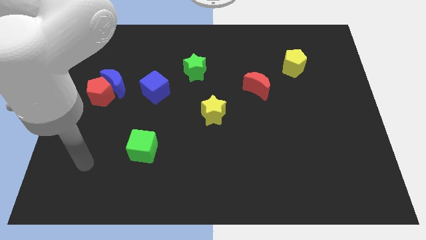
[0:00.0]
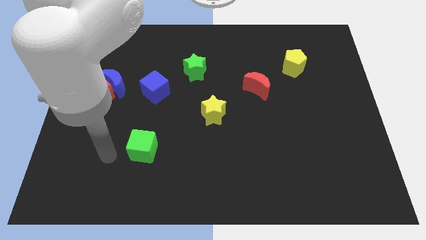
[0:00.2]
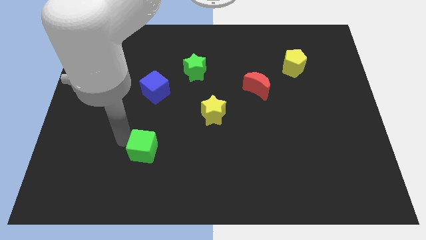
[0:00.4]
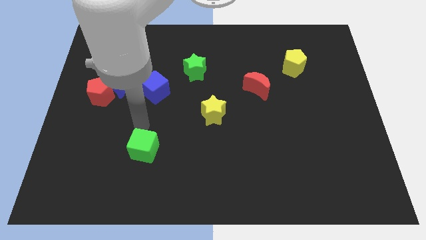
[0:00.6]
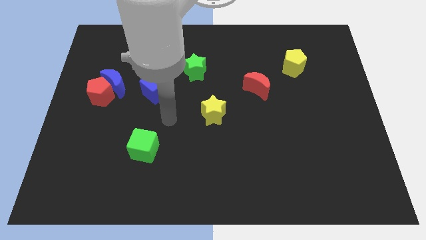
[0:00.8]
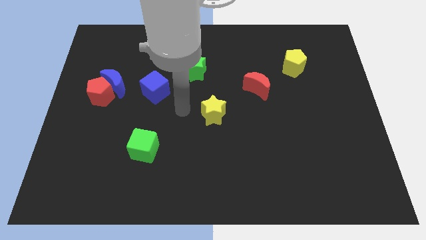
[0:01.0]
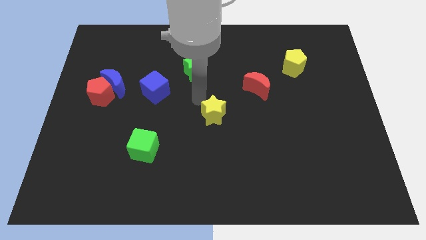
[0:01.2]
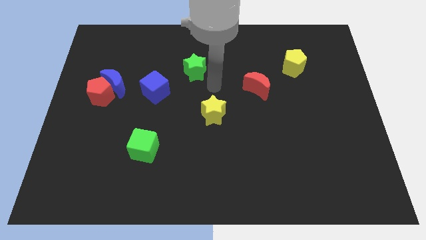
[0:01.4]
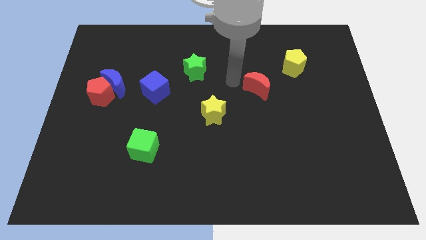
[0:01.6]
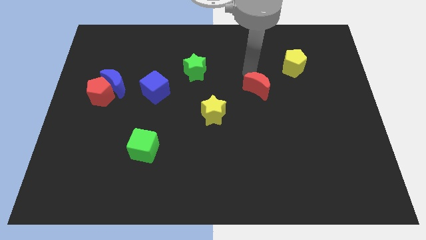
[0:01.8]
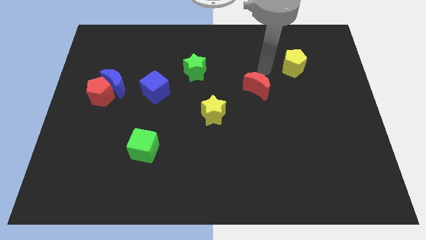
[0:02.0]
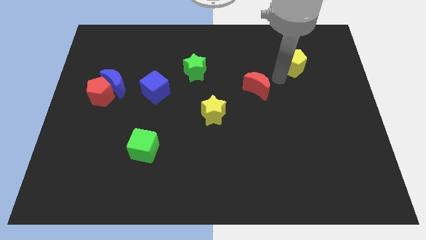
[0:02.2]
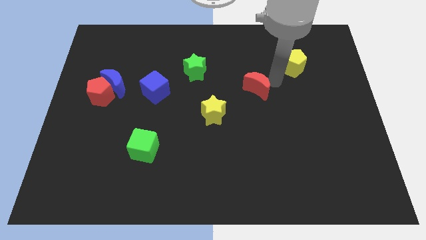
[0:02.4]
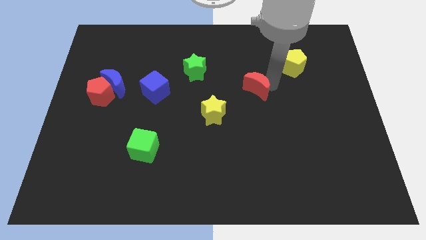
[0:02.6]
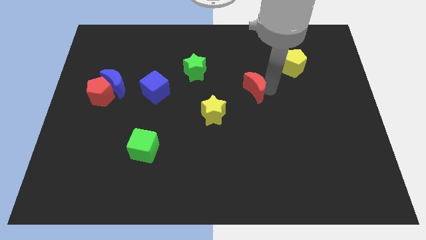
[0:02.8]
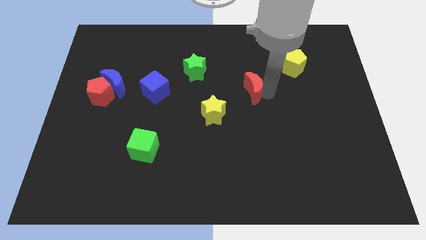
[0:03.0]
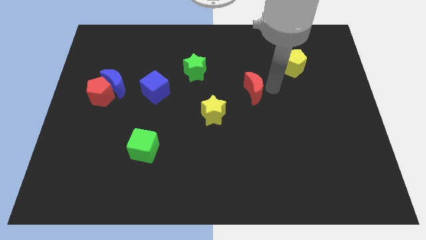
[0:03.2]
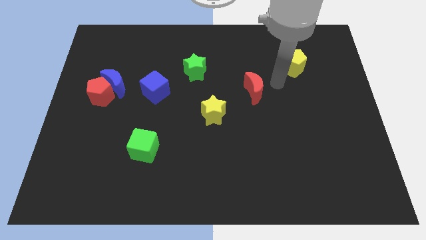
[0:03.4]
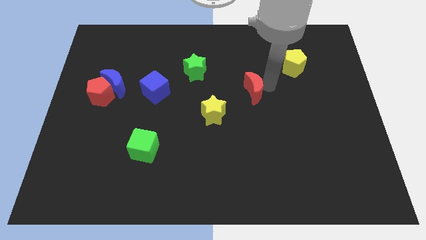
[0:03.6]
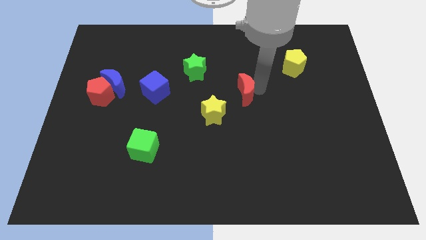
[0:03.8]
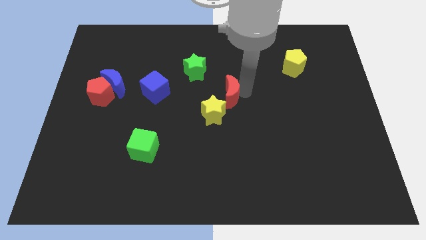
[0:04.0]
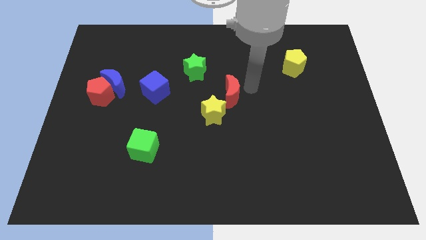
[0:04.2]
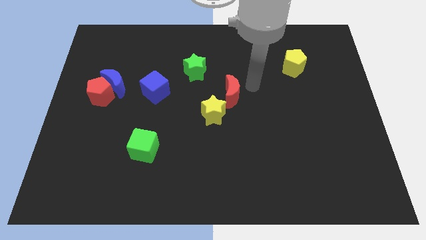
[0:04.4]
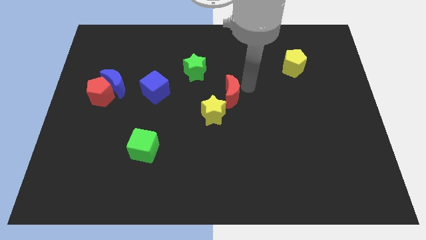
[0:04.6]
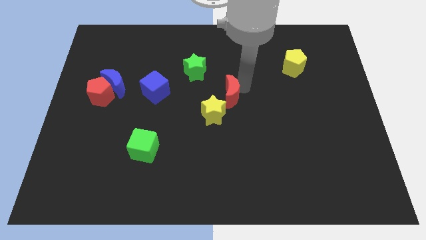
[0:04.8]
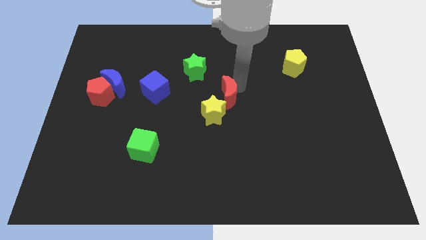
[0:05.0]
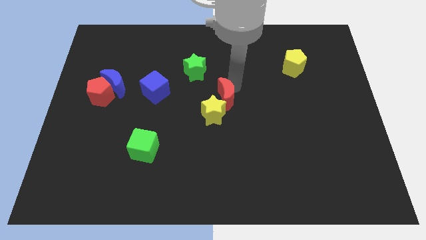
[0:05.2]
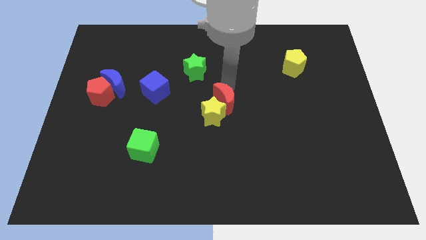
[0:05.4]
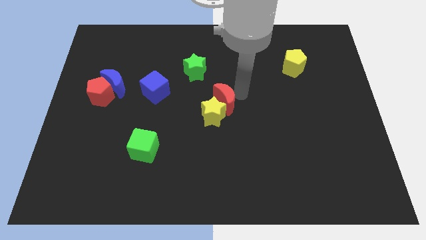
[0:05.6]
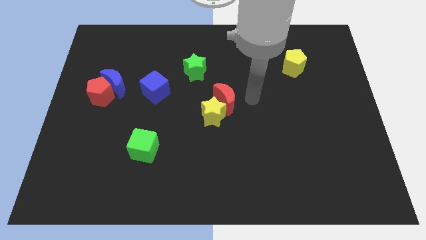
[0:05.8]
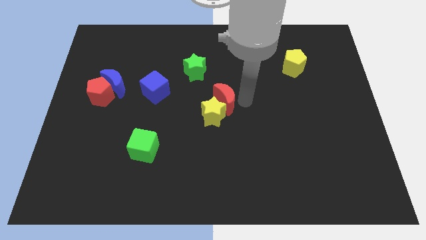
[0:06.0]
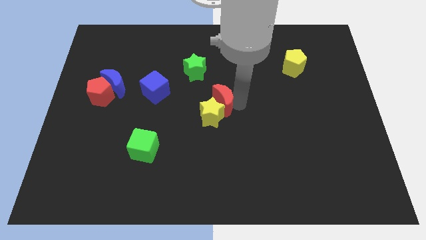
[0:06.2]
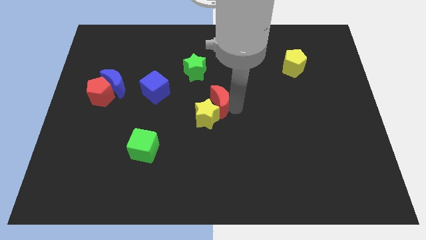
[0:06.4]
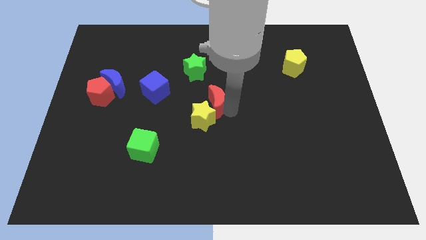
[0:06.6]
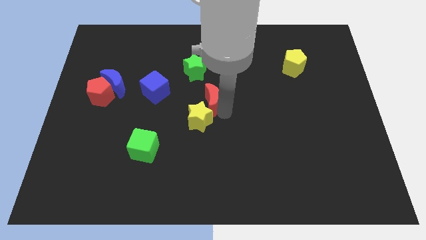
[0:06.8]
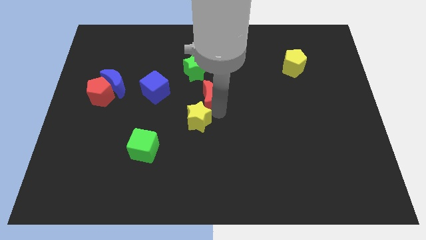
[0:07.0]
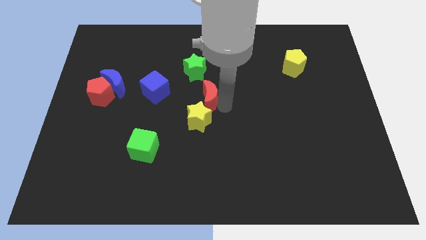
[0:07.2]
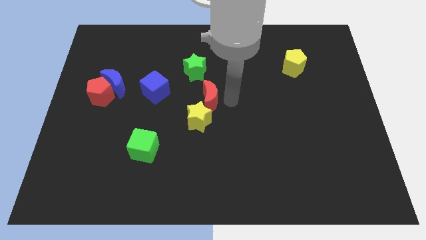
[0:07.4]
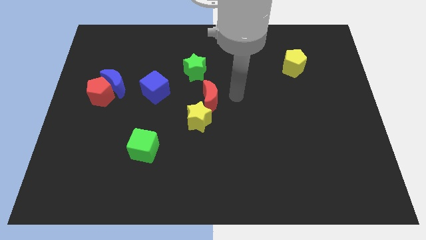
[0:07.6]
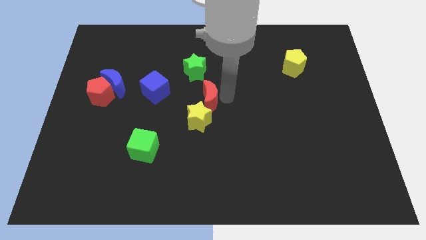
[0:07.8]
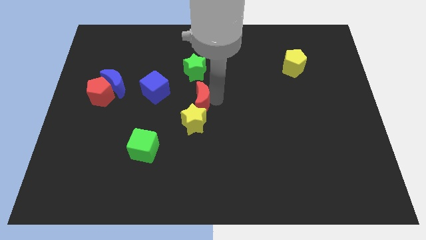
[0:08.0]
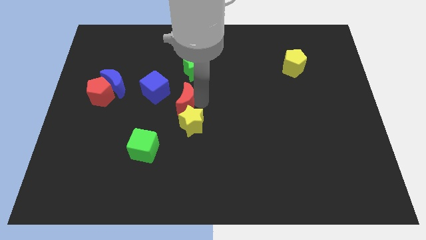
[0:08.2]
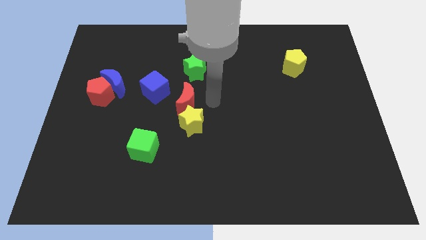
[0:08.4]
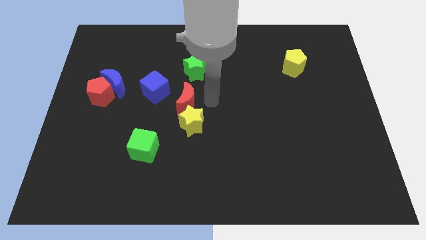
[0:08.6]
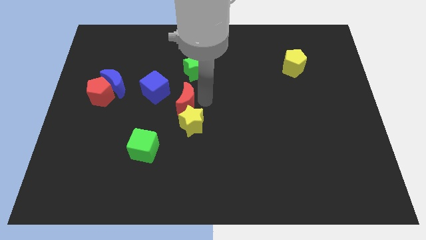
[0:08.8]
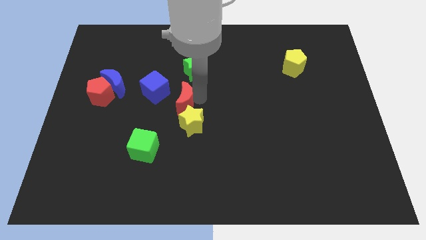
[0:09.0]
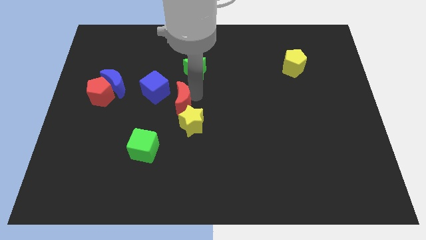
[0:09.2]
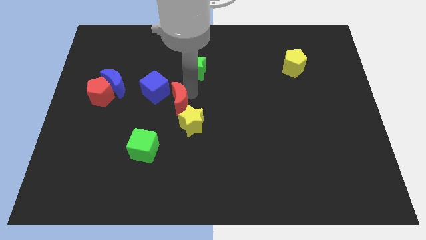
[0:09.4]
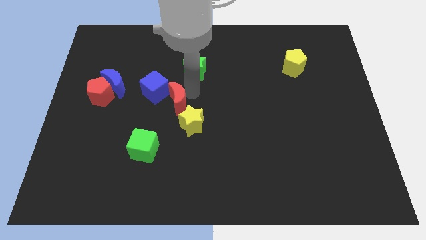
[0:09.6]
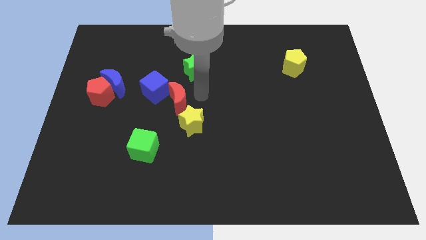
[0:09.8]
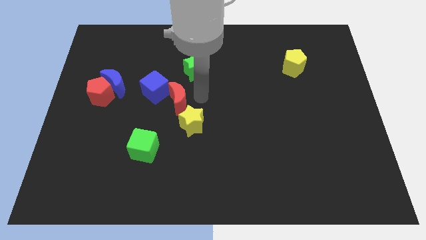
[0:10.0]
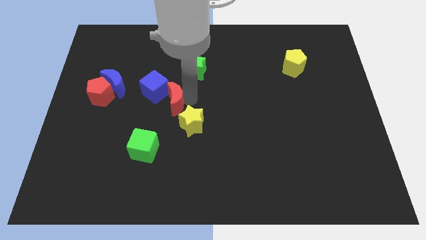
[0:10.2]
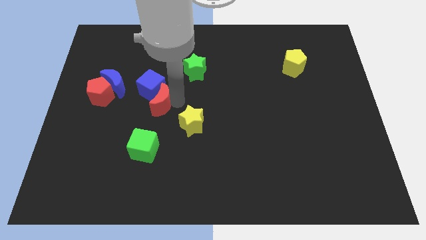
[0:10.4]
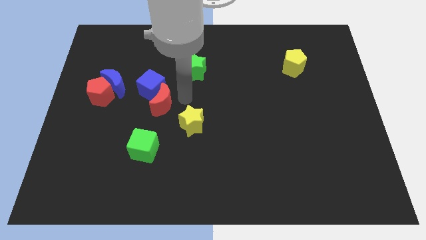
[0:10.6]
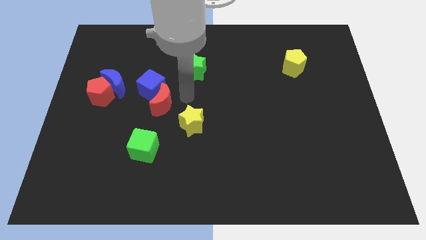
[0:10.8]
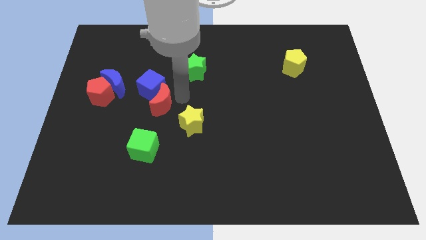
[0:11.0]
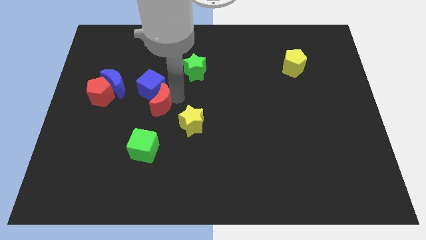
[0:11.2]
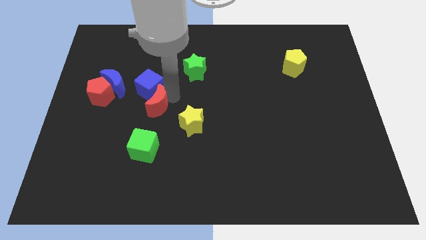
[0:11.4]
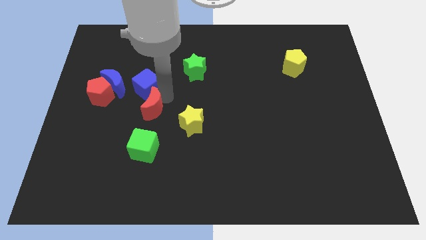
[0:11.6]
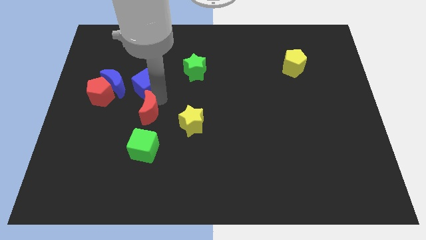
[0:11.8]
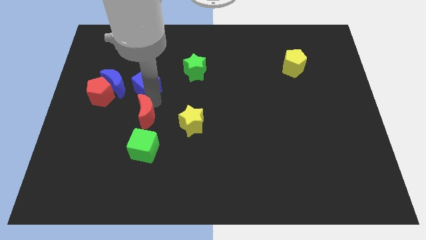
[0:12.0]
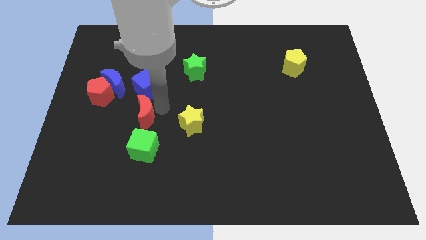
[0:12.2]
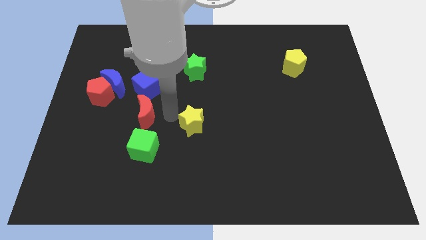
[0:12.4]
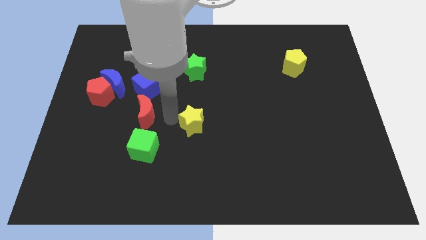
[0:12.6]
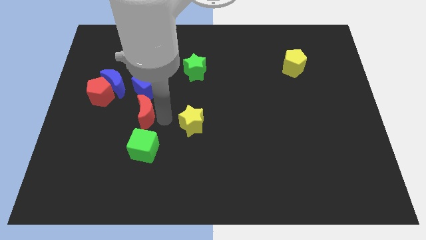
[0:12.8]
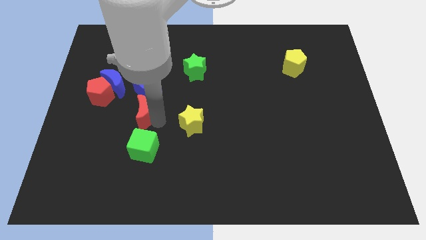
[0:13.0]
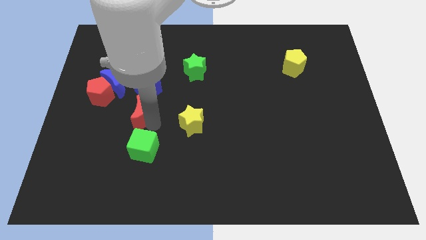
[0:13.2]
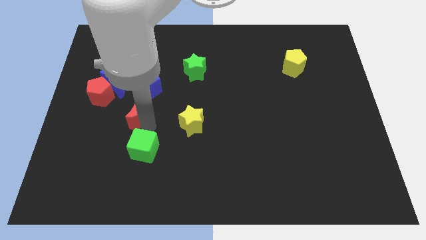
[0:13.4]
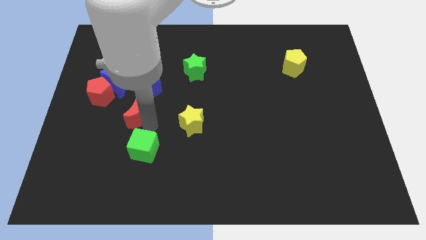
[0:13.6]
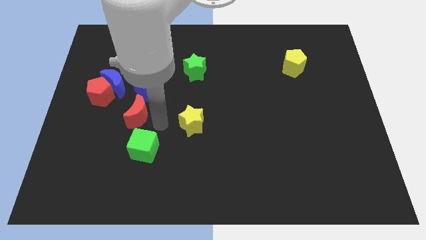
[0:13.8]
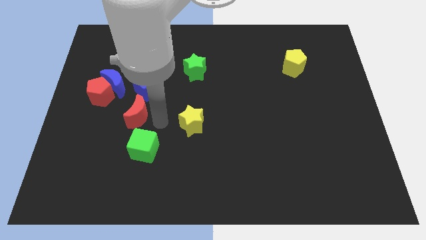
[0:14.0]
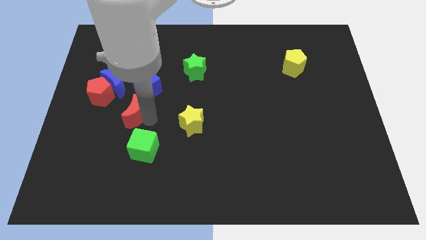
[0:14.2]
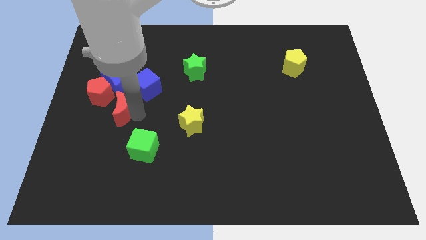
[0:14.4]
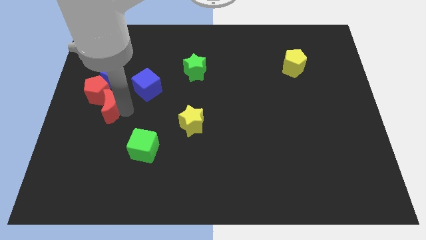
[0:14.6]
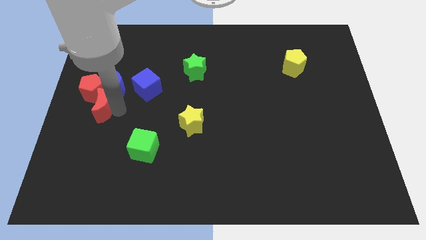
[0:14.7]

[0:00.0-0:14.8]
move the red moon to the left side of the board
